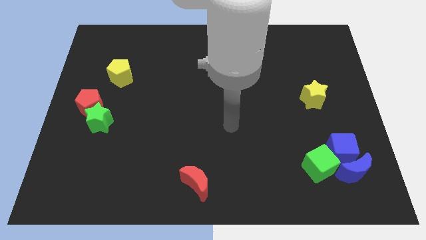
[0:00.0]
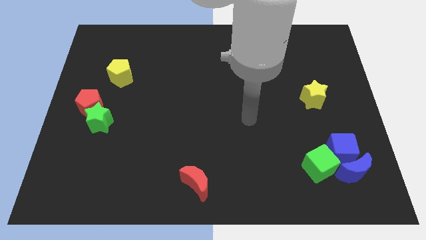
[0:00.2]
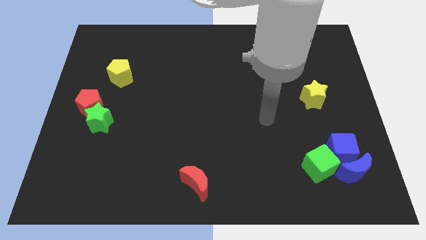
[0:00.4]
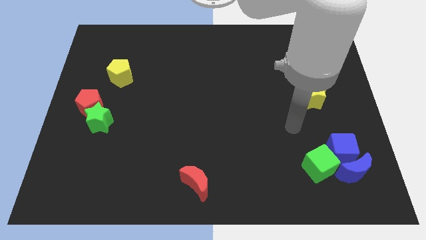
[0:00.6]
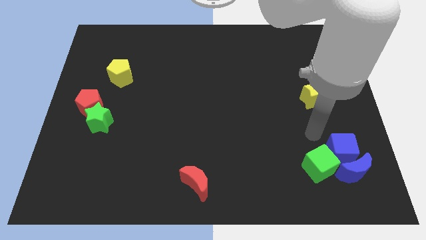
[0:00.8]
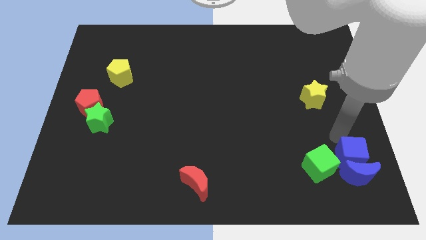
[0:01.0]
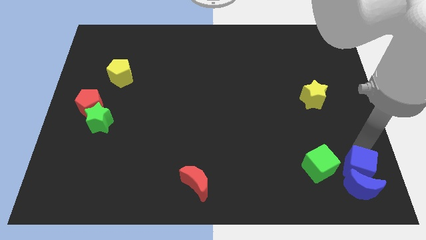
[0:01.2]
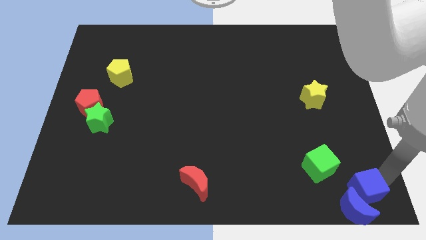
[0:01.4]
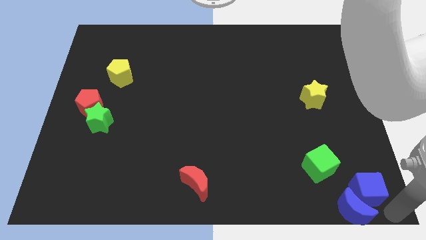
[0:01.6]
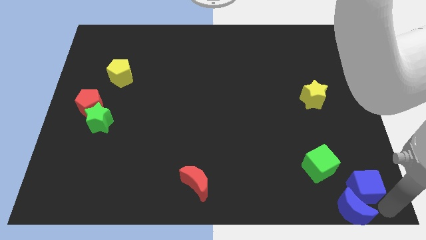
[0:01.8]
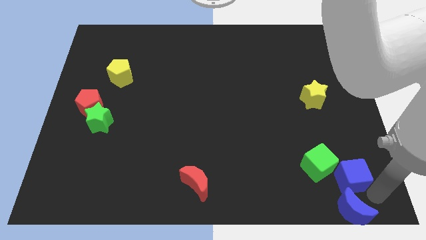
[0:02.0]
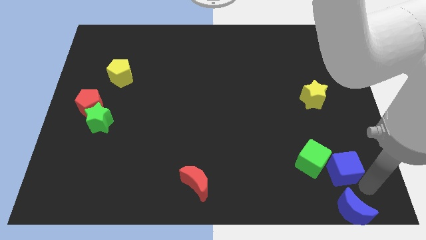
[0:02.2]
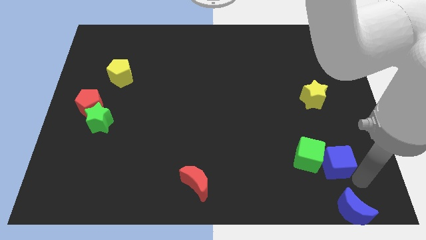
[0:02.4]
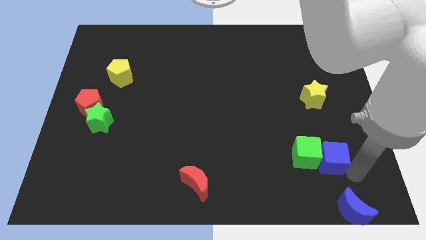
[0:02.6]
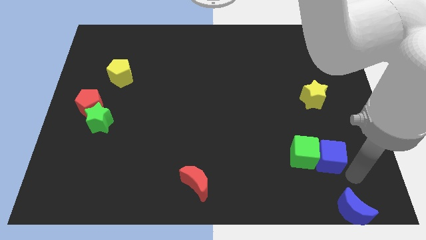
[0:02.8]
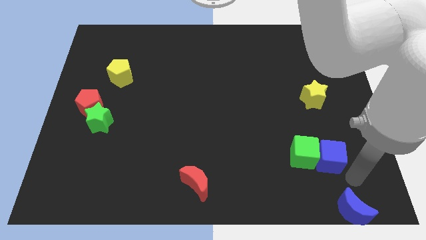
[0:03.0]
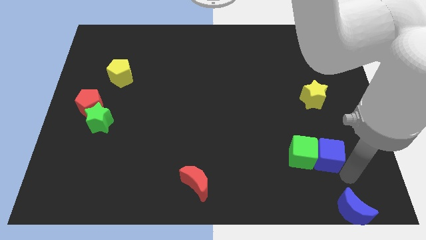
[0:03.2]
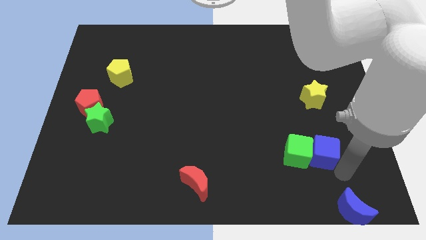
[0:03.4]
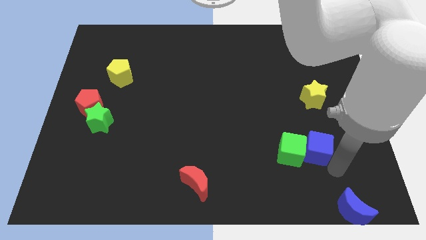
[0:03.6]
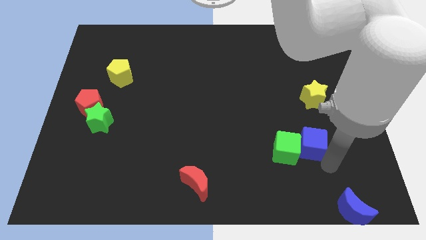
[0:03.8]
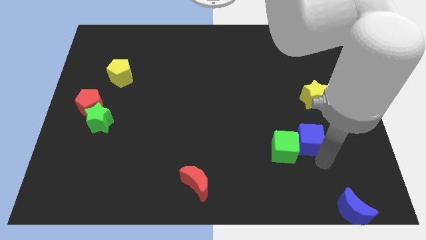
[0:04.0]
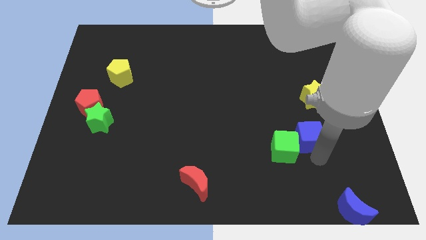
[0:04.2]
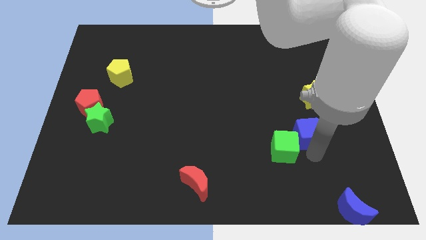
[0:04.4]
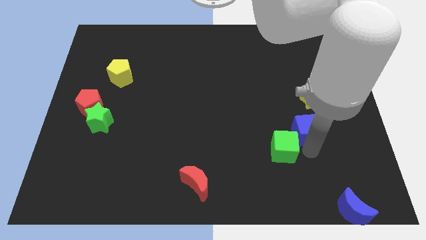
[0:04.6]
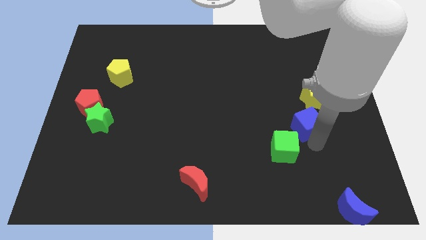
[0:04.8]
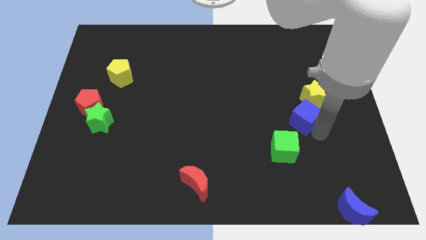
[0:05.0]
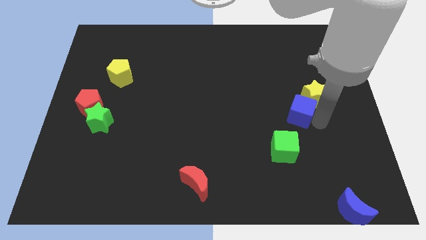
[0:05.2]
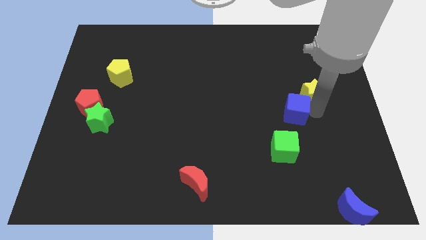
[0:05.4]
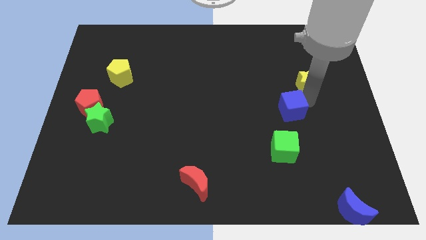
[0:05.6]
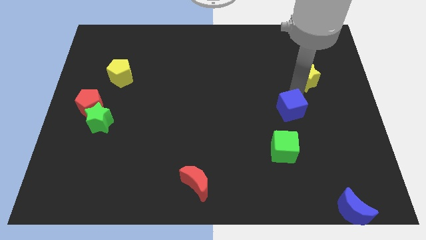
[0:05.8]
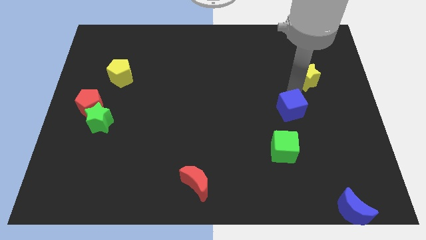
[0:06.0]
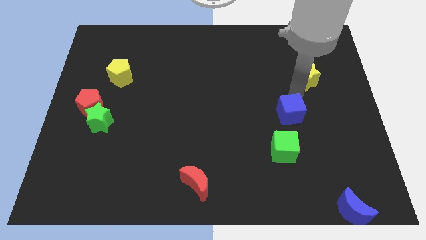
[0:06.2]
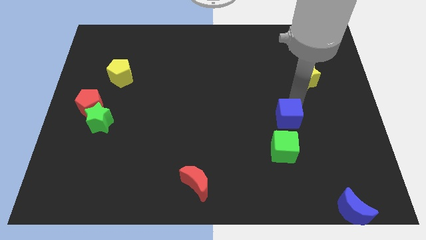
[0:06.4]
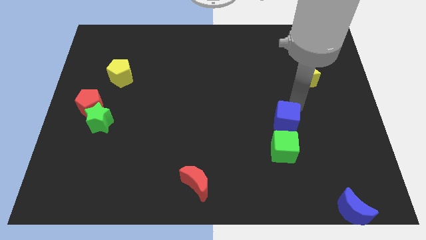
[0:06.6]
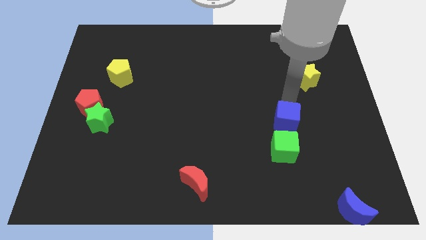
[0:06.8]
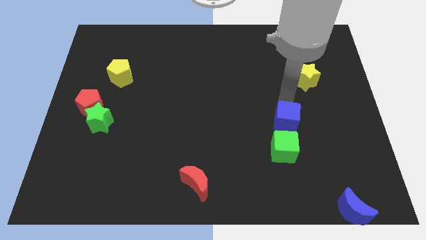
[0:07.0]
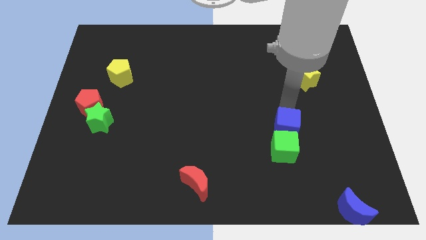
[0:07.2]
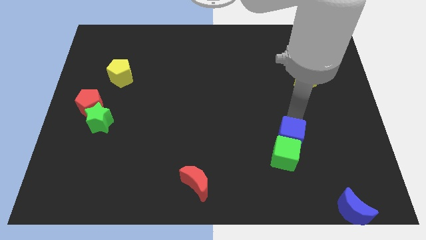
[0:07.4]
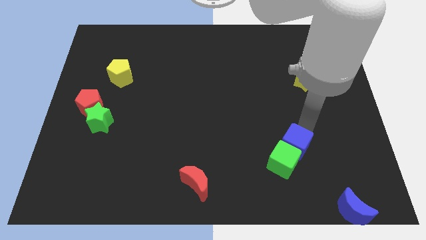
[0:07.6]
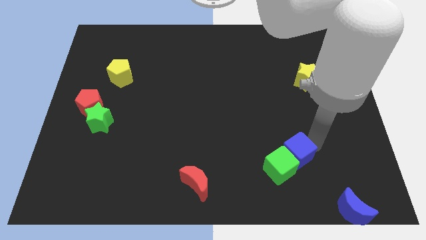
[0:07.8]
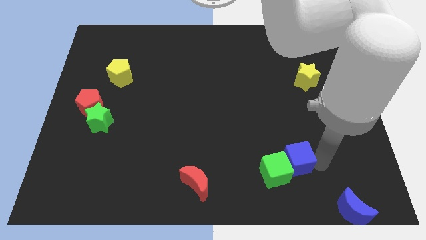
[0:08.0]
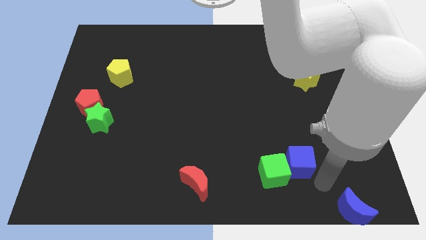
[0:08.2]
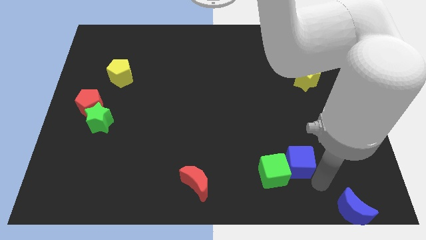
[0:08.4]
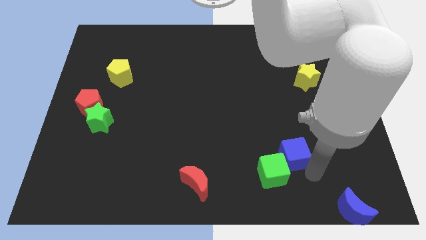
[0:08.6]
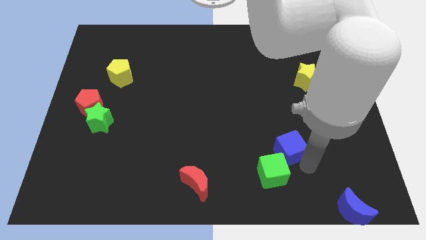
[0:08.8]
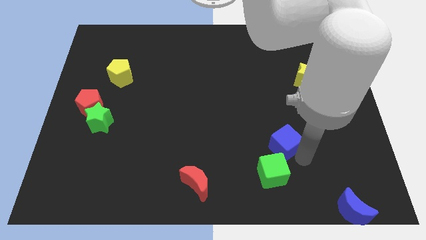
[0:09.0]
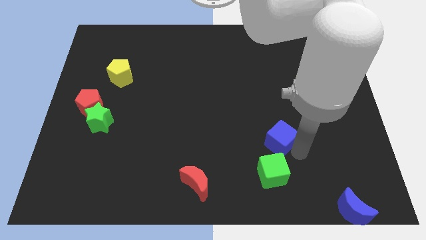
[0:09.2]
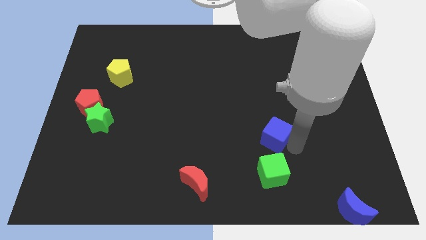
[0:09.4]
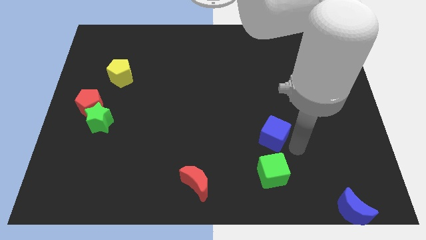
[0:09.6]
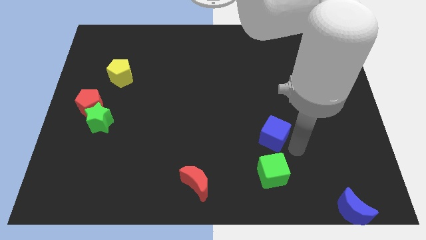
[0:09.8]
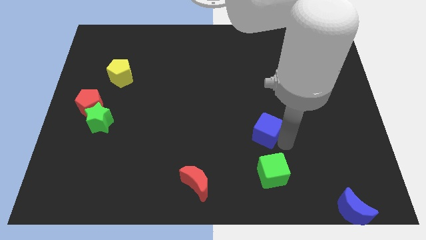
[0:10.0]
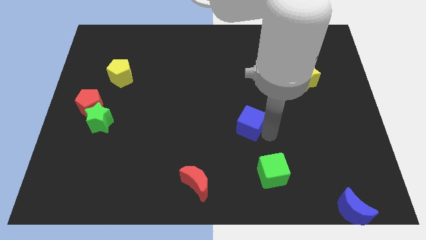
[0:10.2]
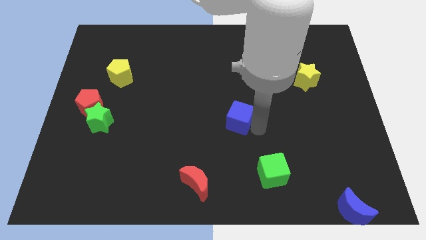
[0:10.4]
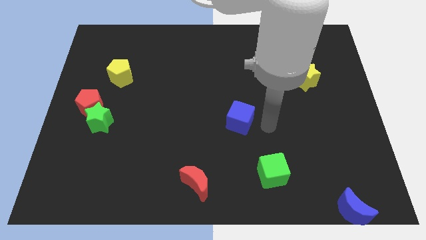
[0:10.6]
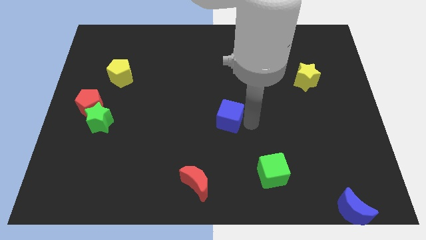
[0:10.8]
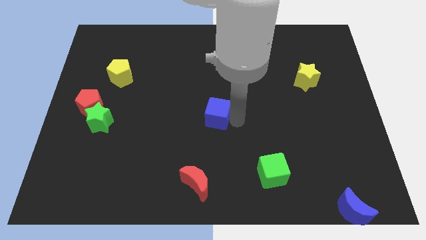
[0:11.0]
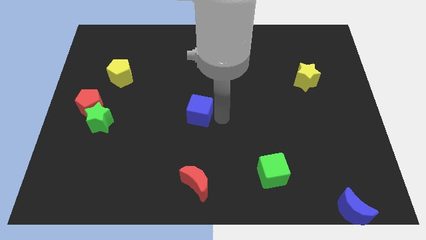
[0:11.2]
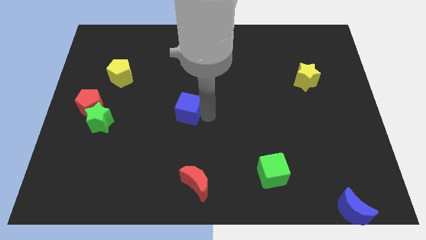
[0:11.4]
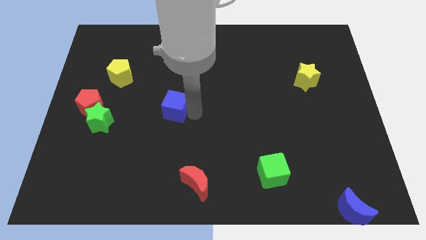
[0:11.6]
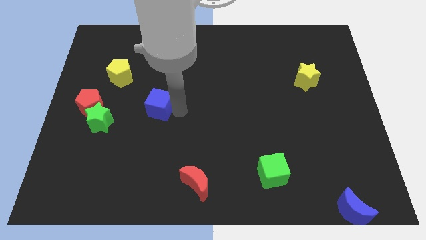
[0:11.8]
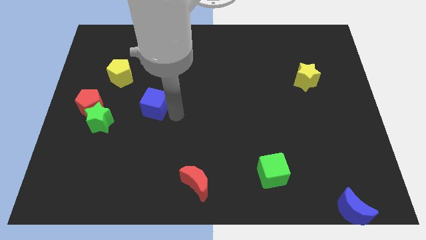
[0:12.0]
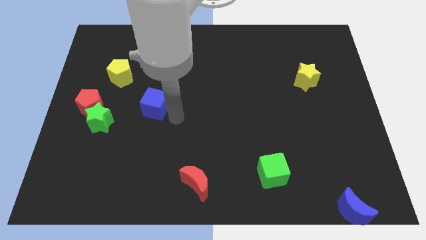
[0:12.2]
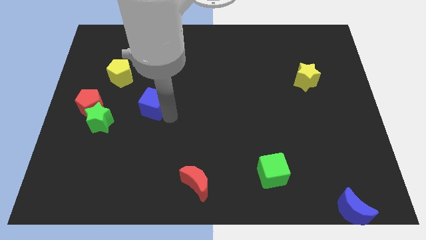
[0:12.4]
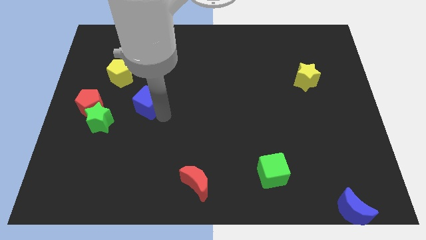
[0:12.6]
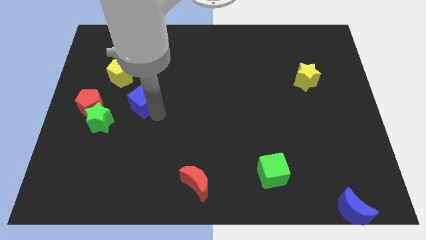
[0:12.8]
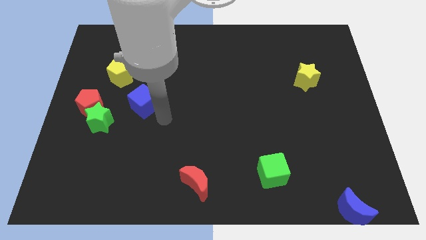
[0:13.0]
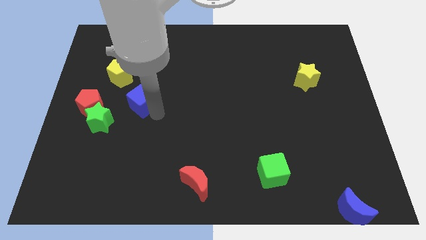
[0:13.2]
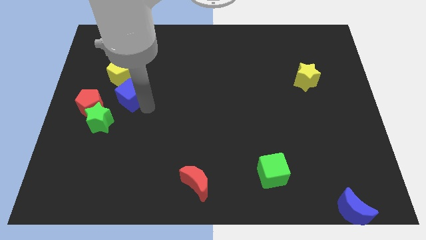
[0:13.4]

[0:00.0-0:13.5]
push the blue cube diagonally up and to the right of the red pentagon
